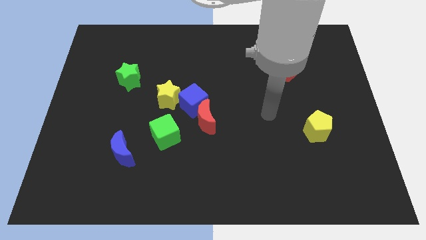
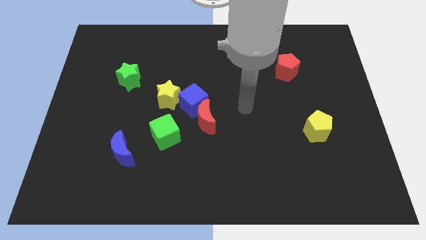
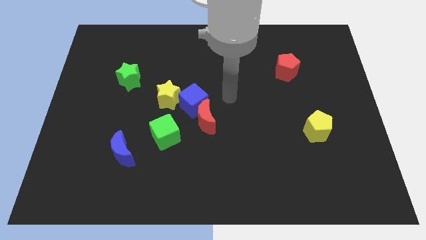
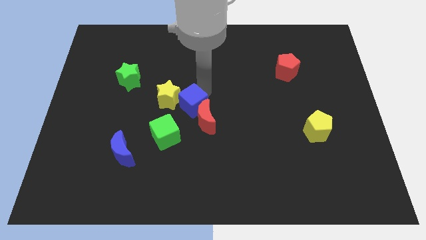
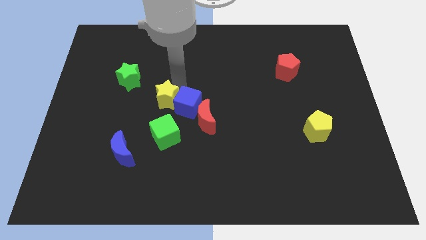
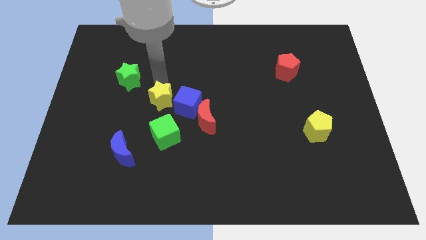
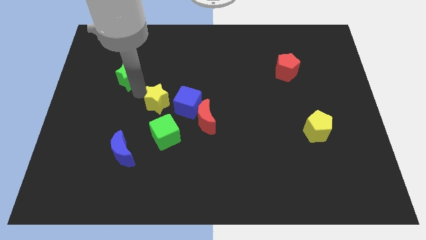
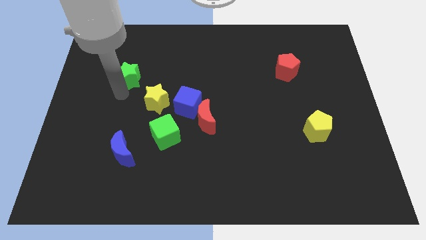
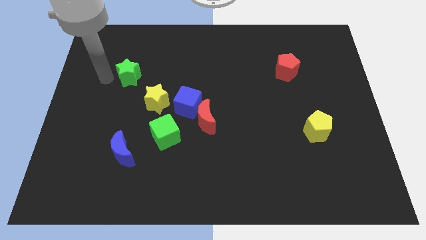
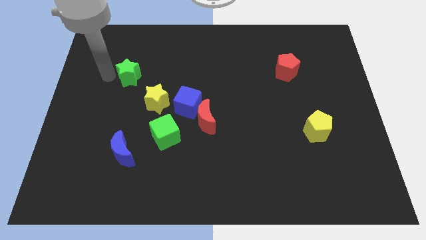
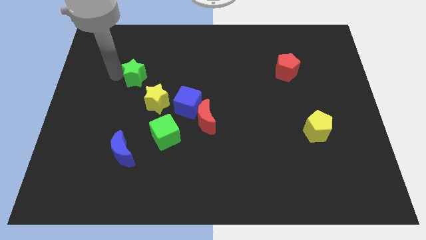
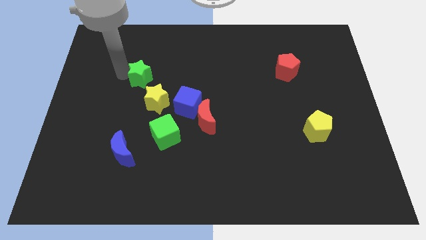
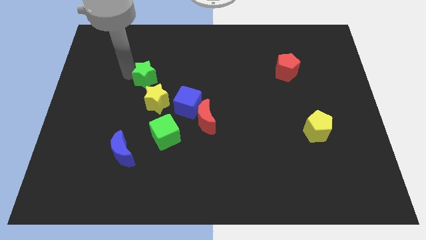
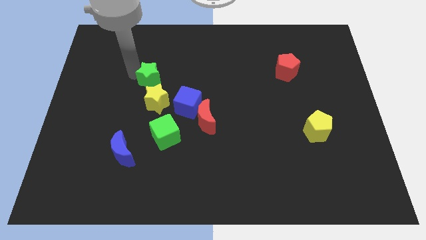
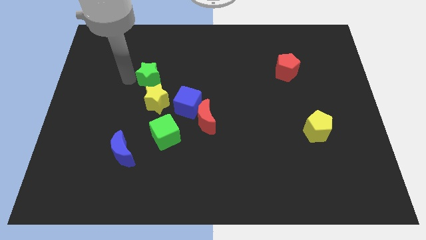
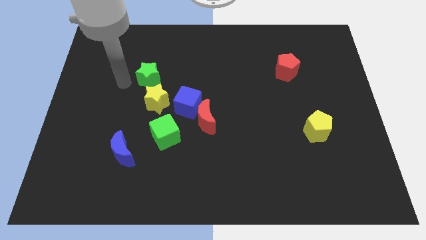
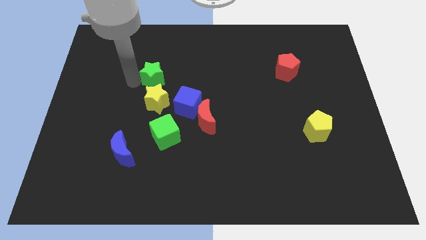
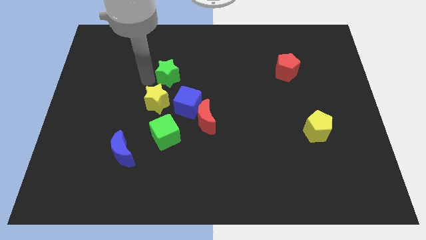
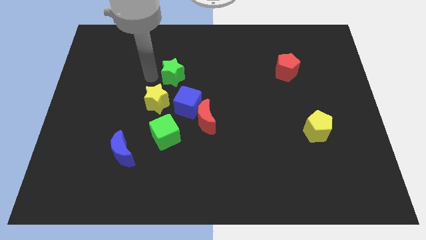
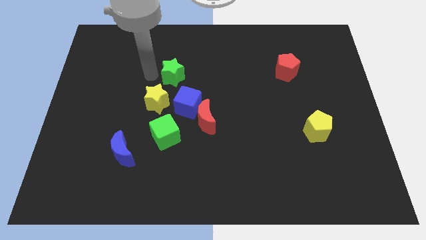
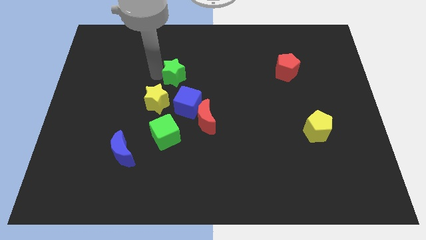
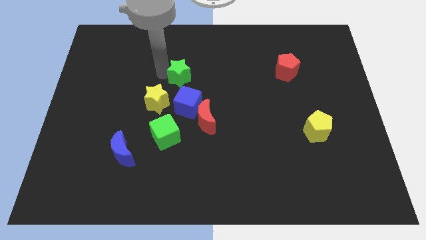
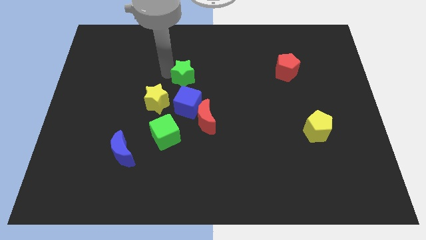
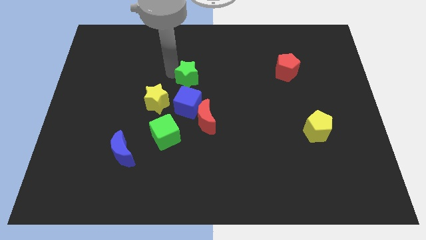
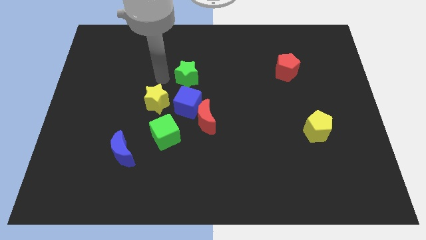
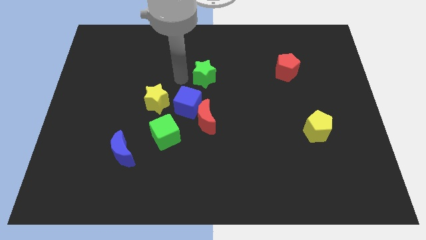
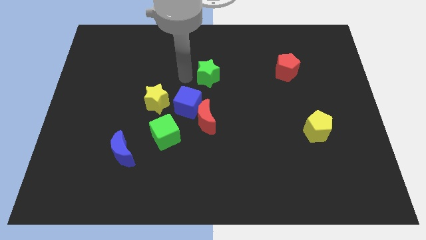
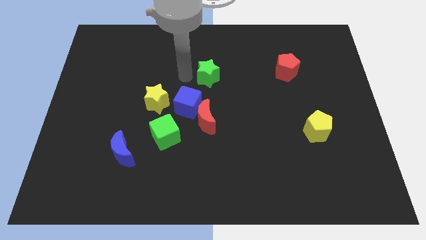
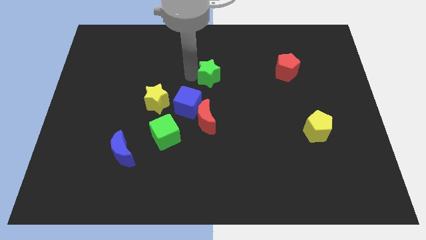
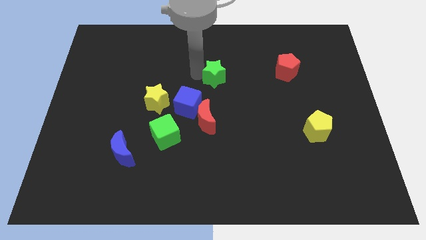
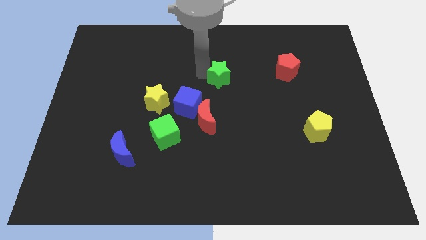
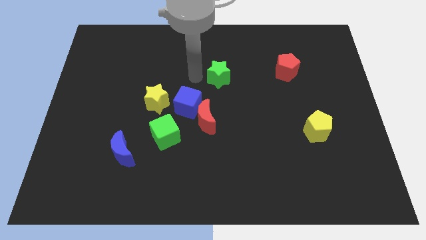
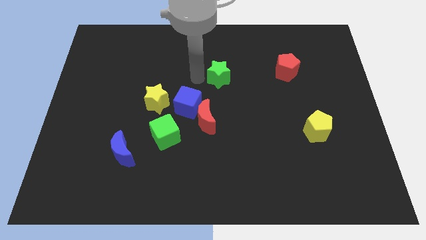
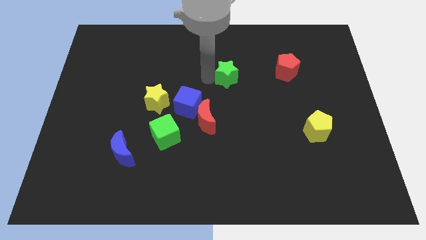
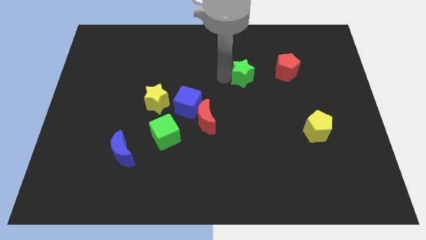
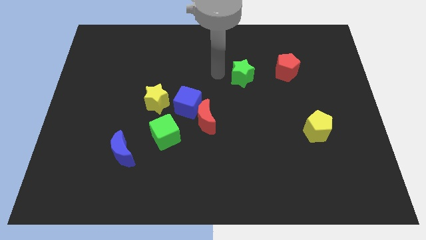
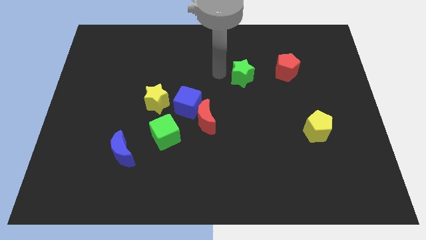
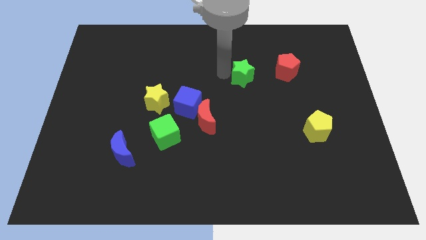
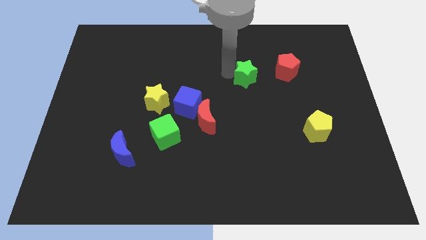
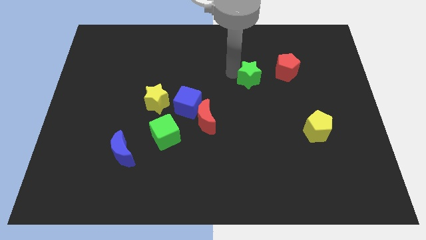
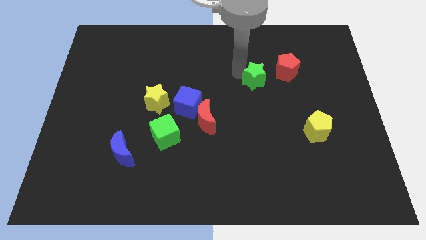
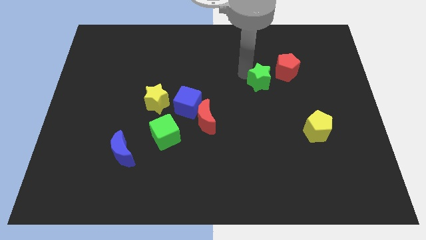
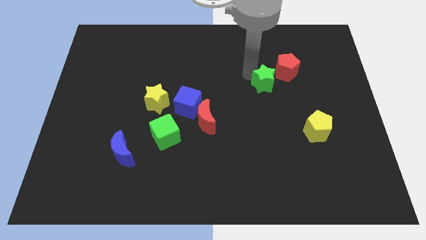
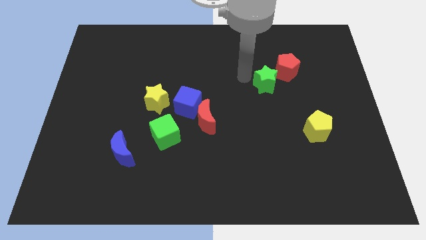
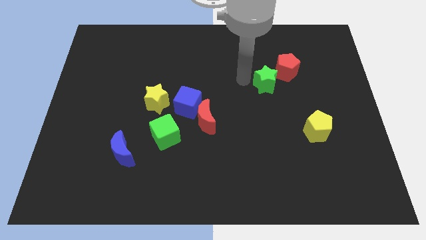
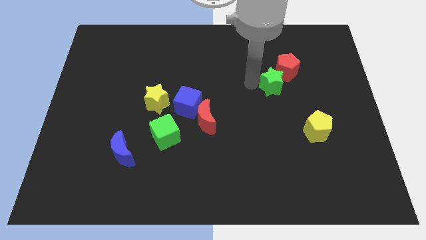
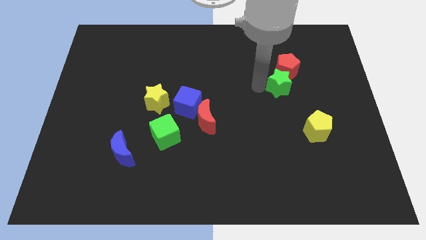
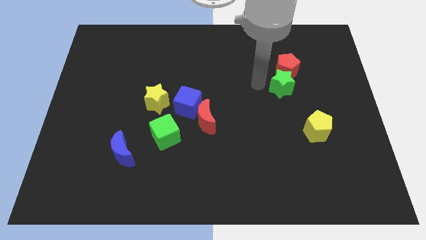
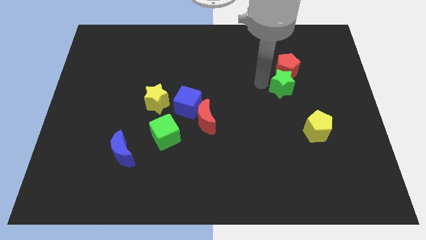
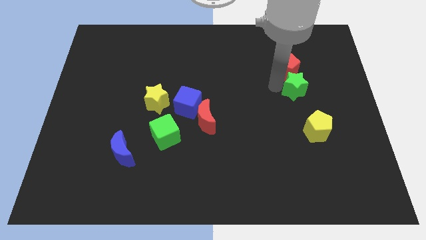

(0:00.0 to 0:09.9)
push the green star above the yellow pentagon

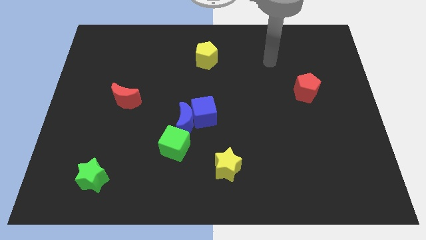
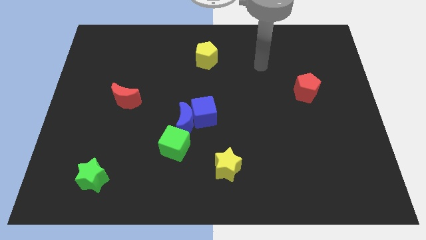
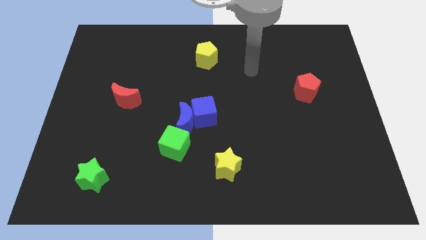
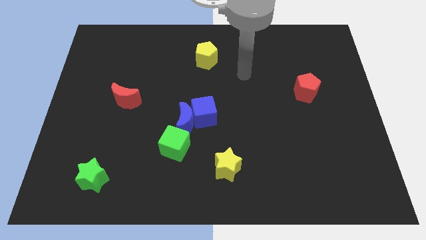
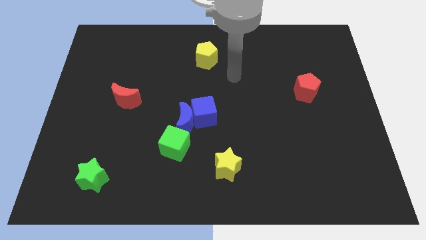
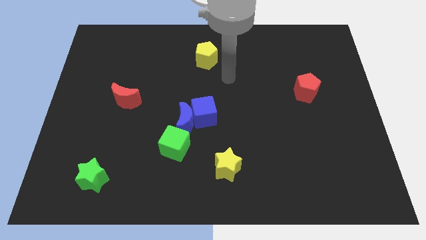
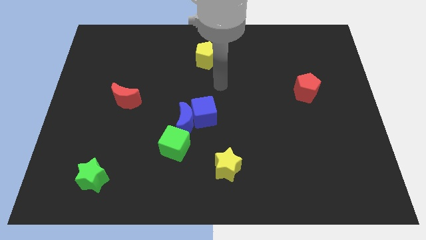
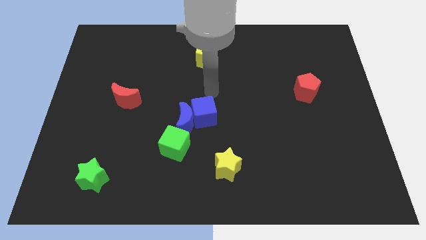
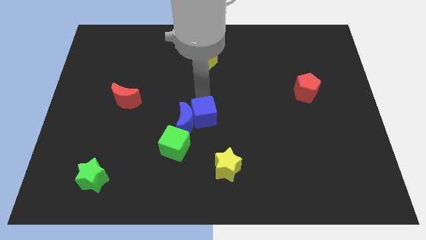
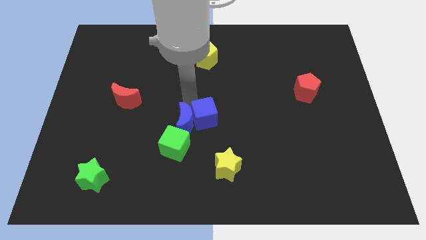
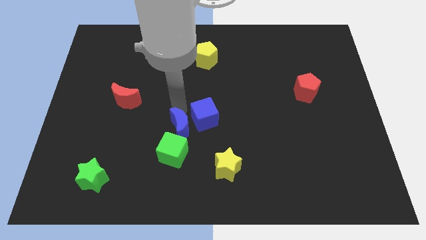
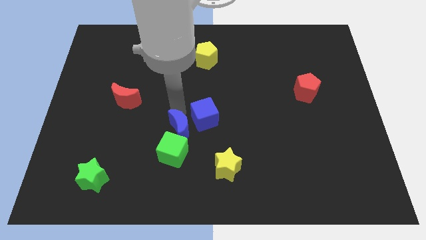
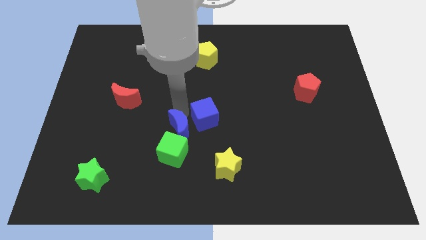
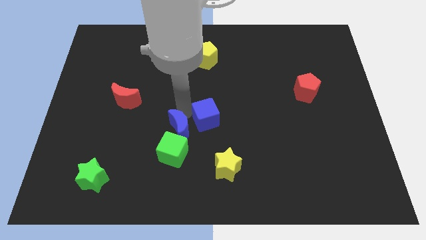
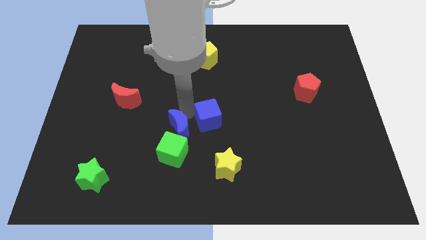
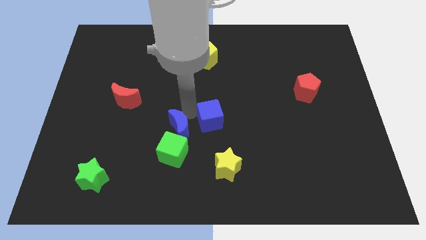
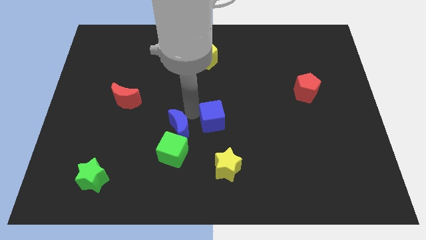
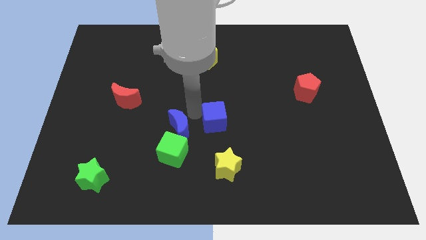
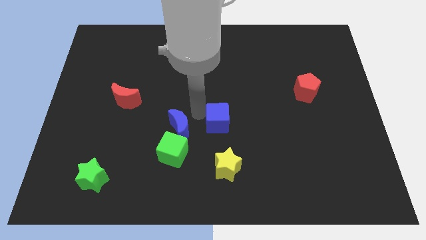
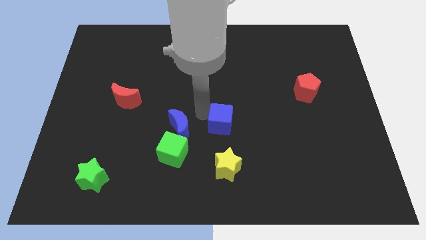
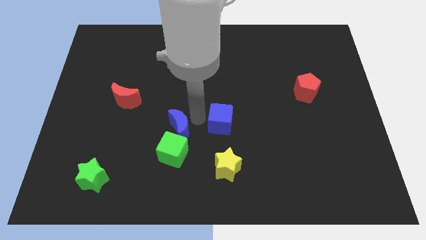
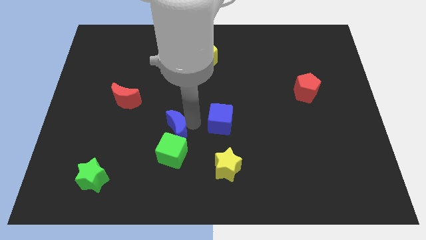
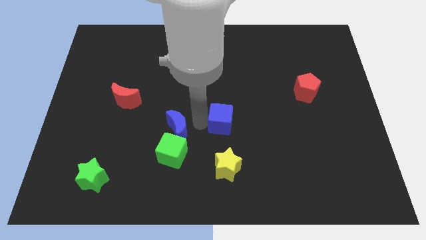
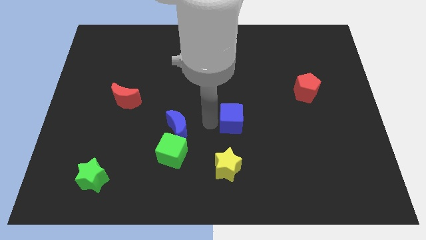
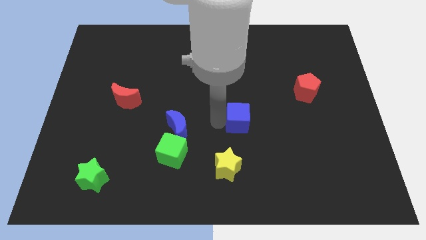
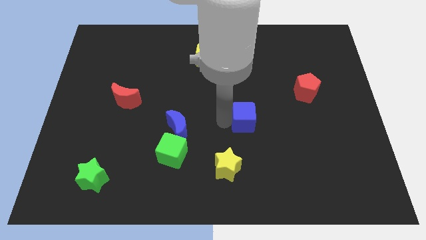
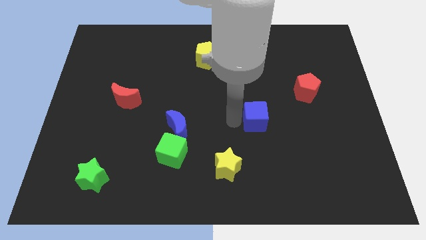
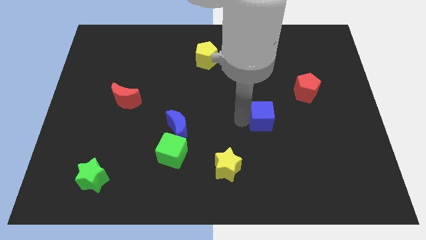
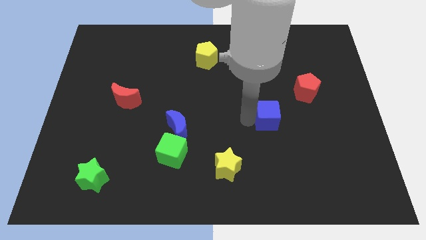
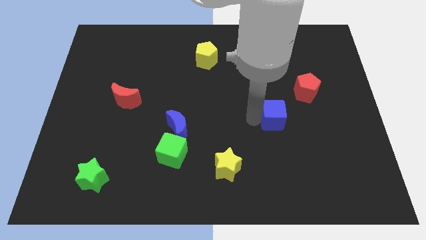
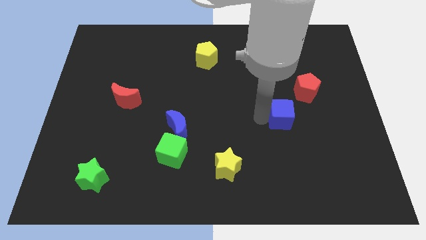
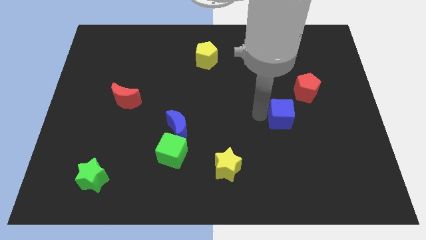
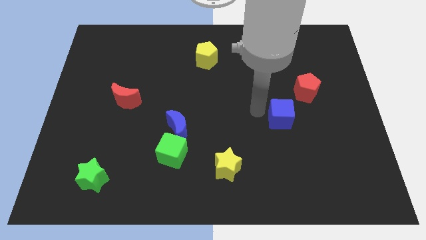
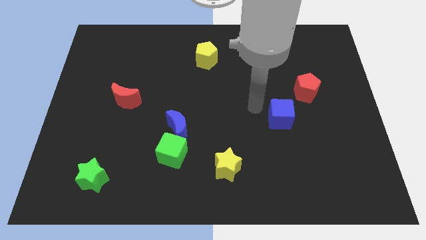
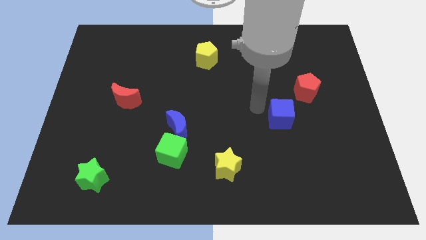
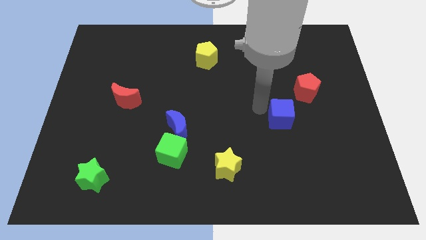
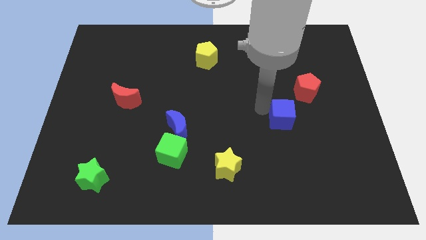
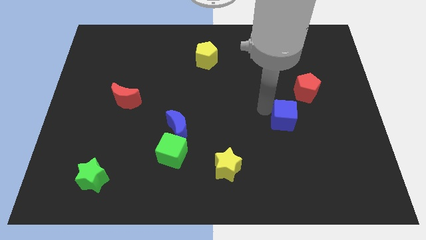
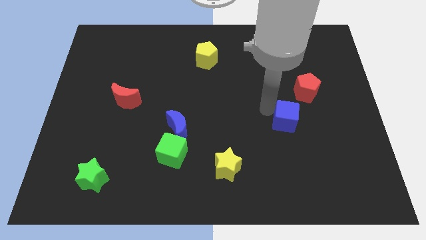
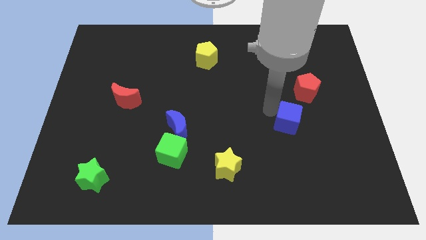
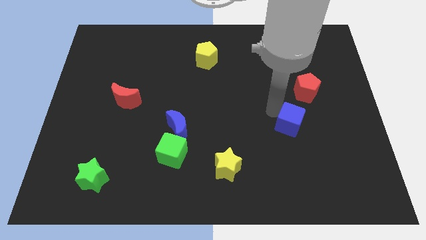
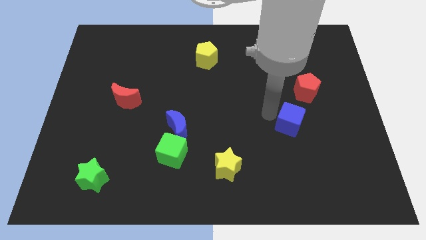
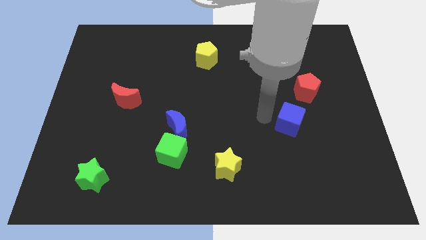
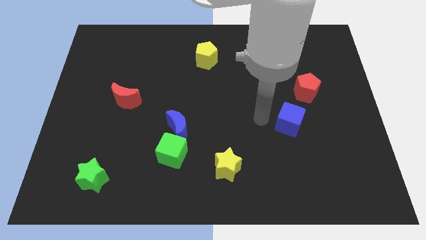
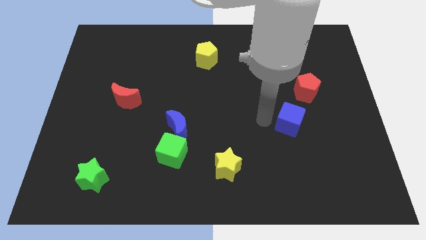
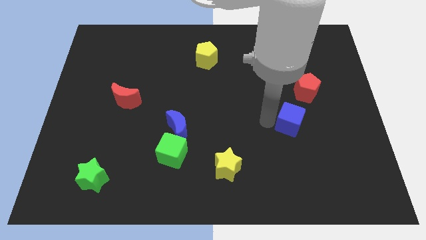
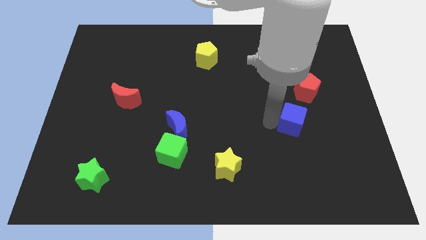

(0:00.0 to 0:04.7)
move the blue cube to the bottom of the red pentagon
